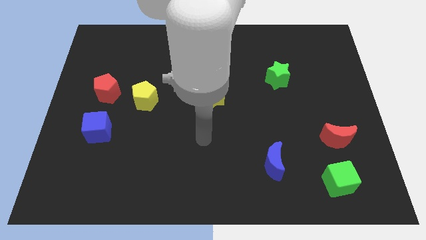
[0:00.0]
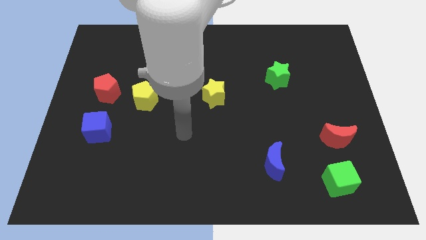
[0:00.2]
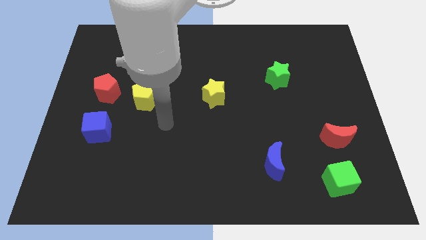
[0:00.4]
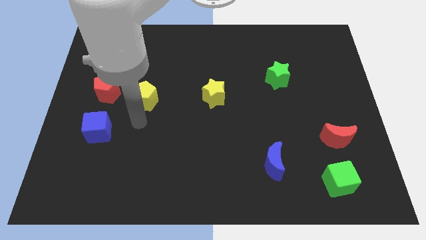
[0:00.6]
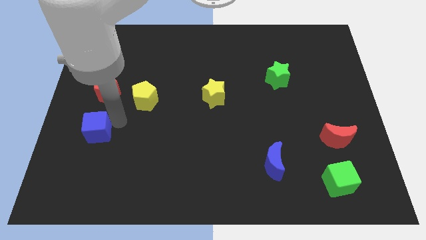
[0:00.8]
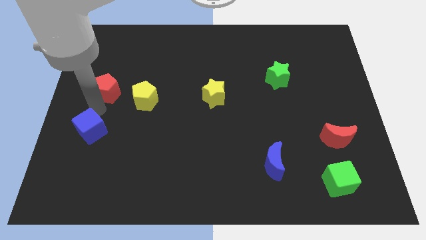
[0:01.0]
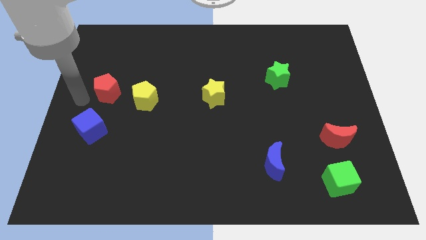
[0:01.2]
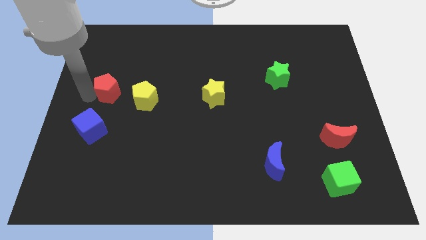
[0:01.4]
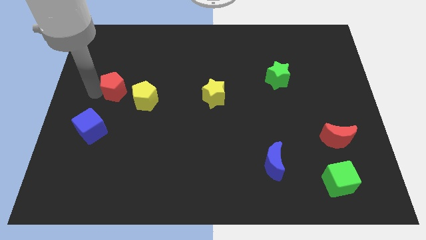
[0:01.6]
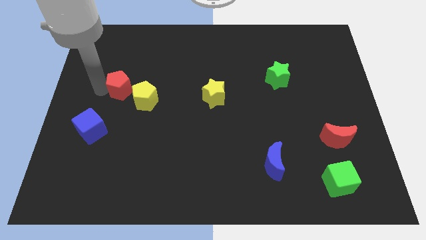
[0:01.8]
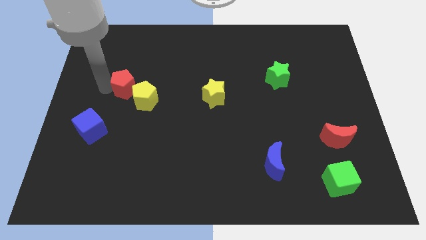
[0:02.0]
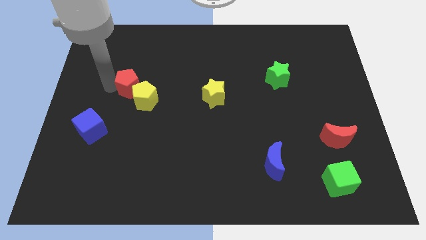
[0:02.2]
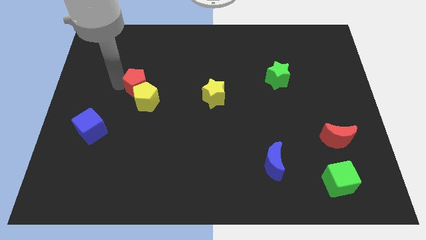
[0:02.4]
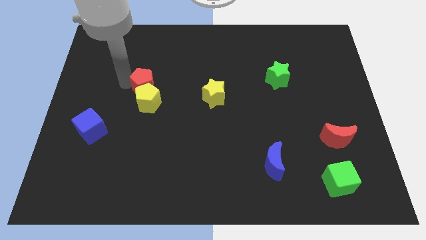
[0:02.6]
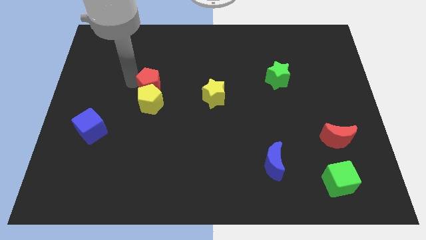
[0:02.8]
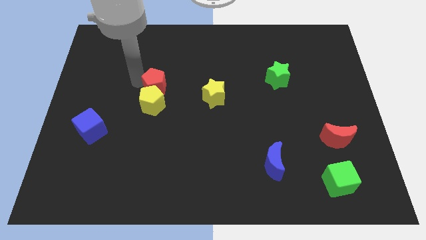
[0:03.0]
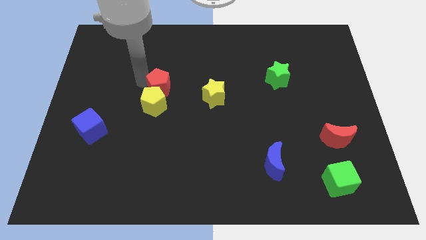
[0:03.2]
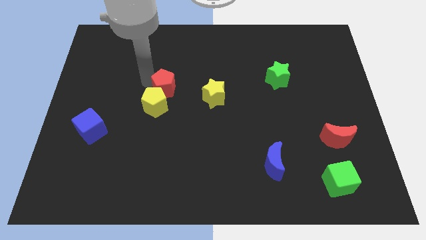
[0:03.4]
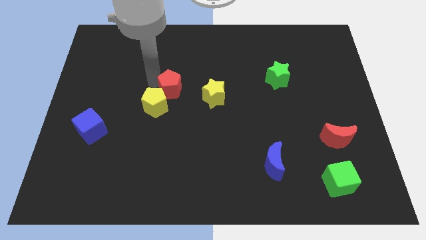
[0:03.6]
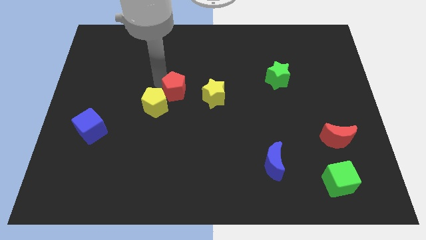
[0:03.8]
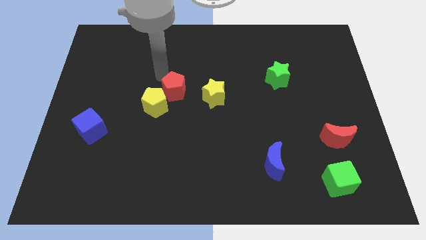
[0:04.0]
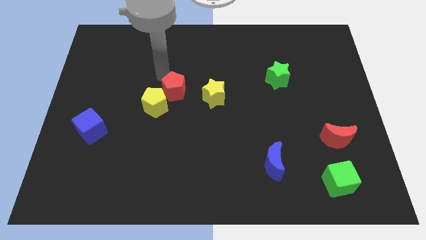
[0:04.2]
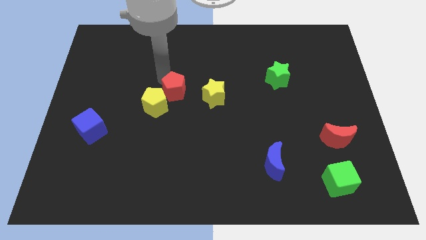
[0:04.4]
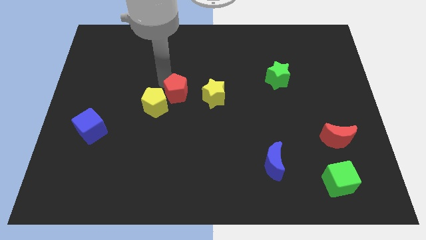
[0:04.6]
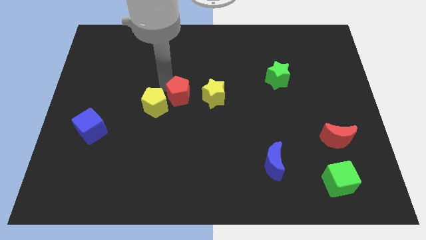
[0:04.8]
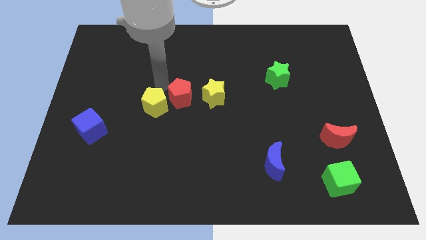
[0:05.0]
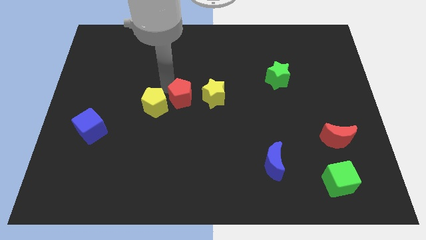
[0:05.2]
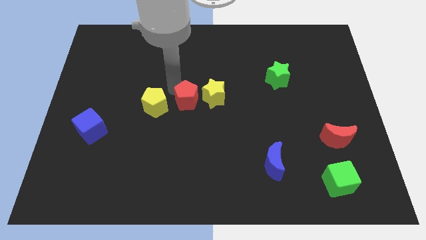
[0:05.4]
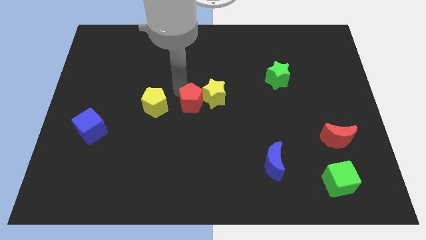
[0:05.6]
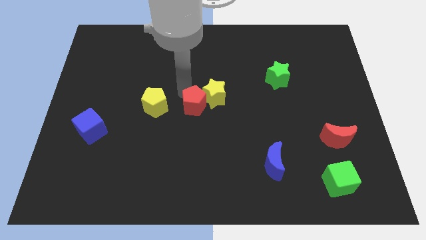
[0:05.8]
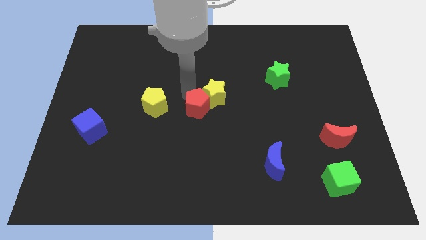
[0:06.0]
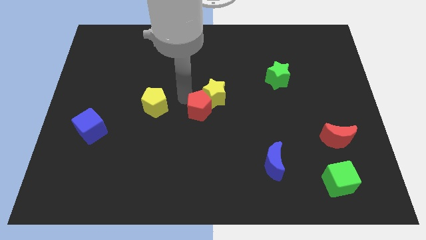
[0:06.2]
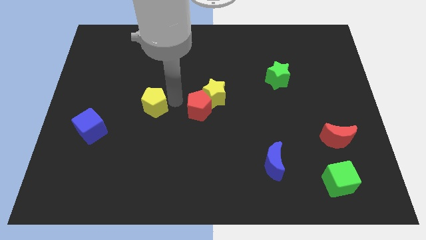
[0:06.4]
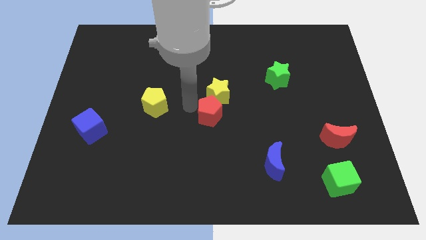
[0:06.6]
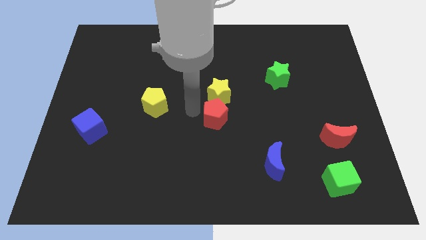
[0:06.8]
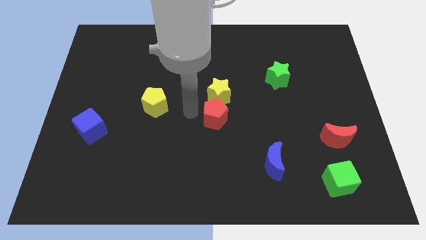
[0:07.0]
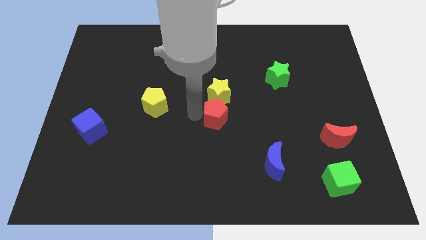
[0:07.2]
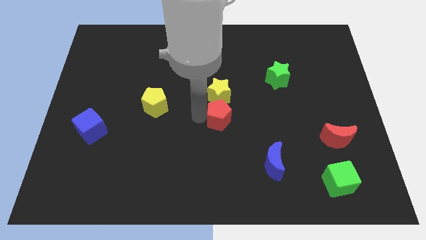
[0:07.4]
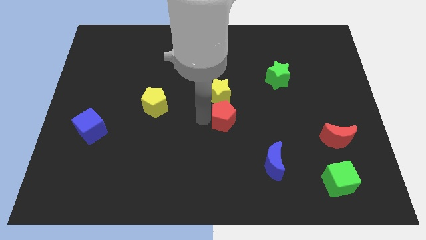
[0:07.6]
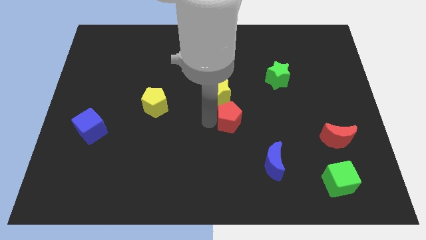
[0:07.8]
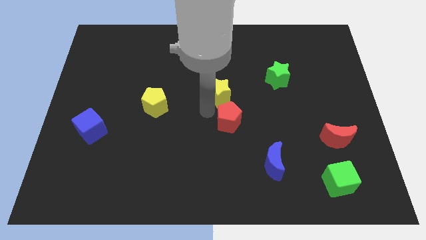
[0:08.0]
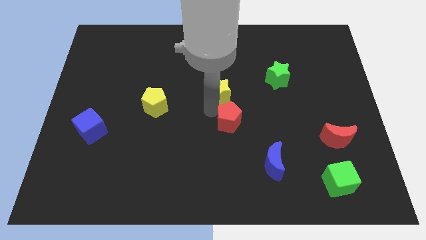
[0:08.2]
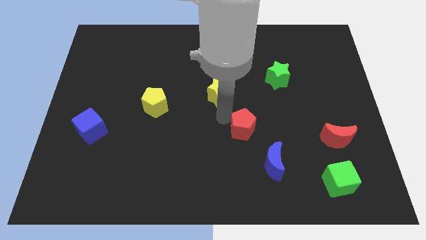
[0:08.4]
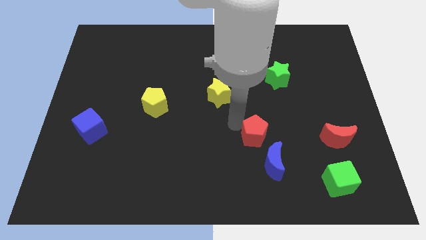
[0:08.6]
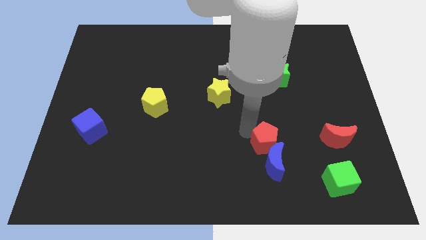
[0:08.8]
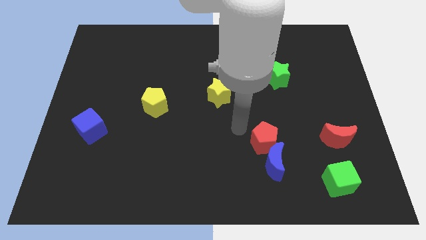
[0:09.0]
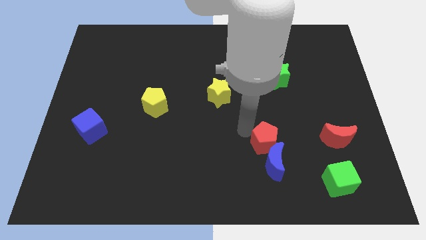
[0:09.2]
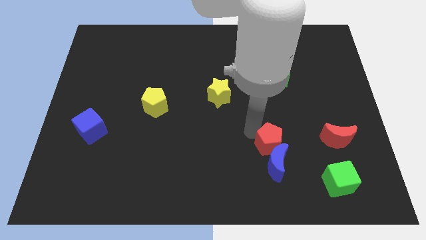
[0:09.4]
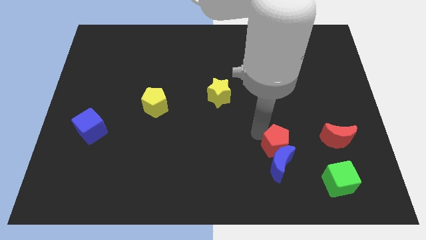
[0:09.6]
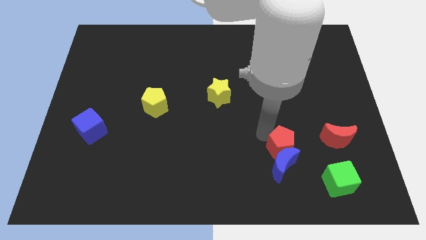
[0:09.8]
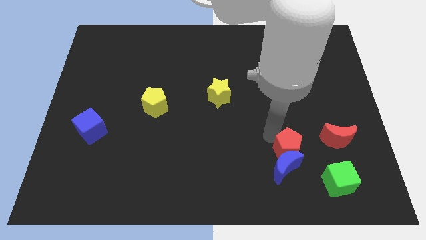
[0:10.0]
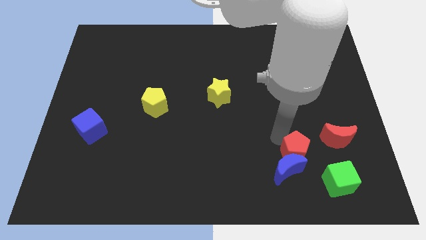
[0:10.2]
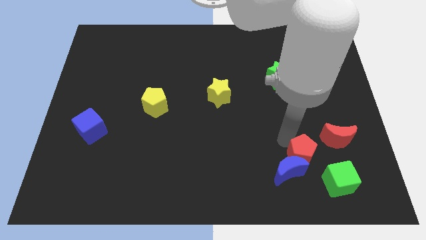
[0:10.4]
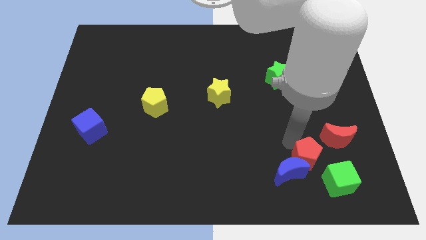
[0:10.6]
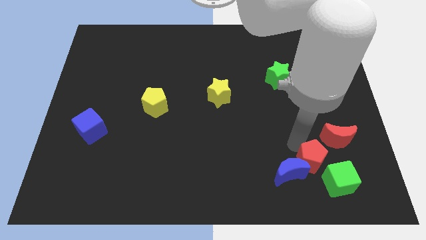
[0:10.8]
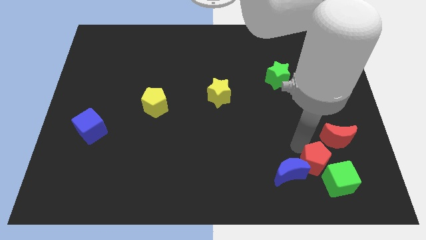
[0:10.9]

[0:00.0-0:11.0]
move the red pentagon towards the green cube

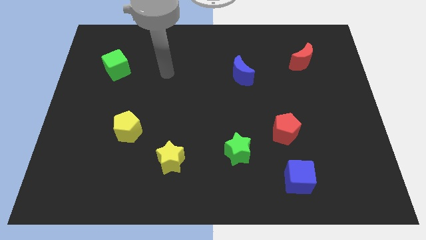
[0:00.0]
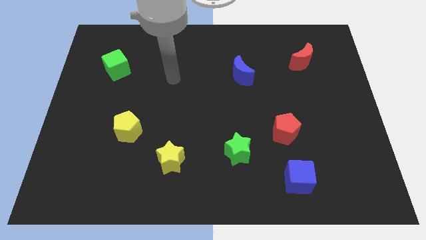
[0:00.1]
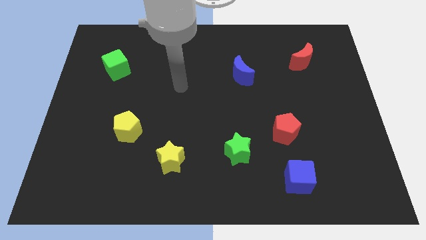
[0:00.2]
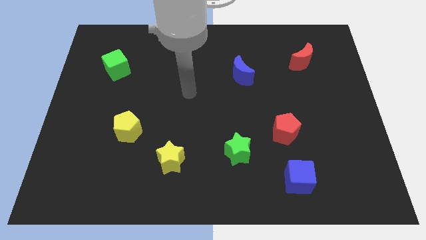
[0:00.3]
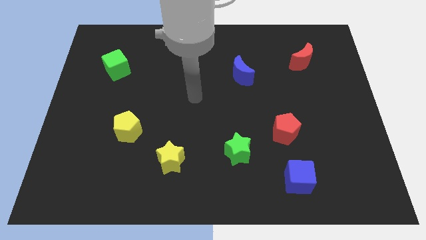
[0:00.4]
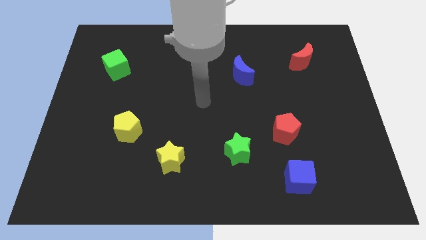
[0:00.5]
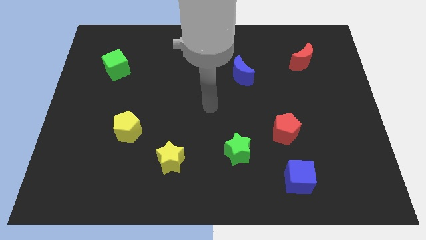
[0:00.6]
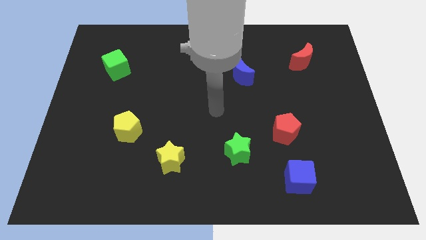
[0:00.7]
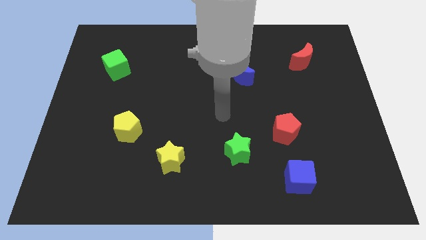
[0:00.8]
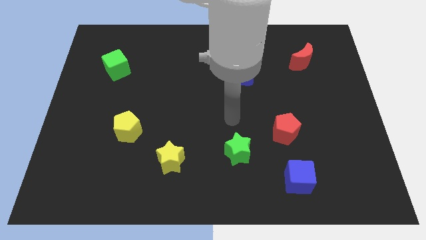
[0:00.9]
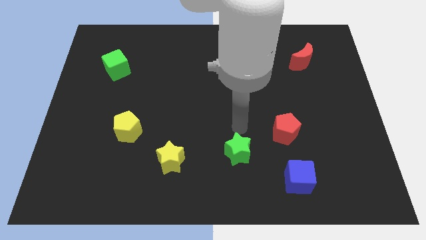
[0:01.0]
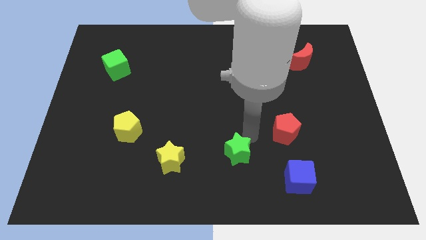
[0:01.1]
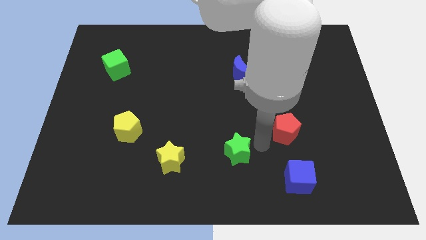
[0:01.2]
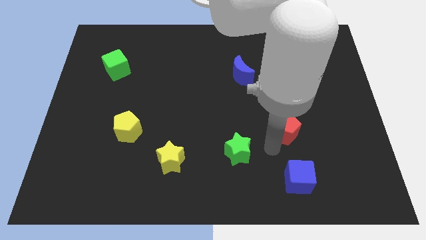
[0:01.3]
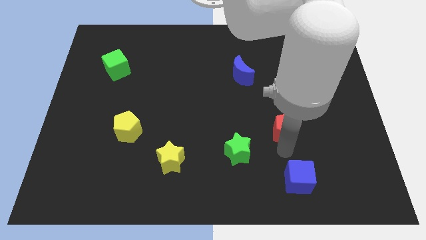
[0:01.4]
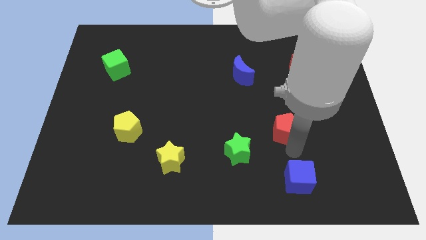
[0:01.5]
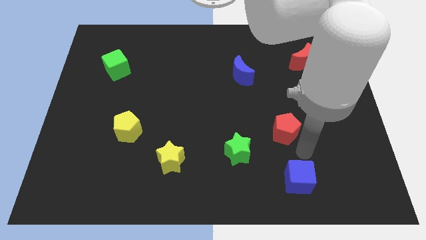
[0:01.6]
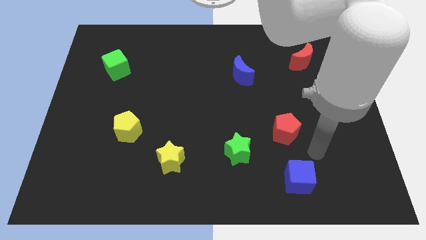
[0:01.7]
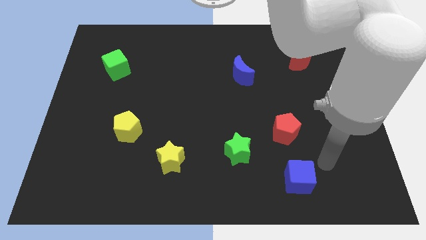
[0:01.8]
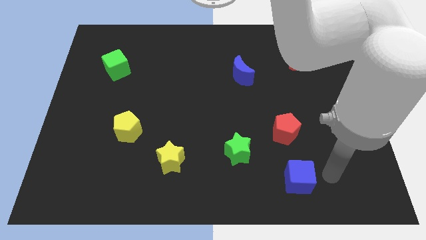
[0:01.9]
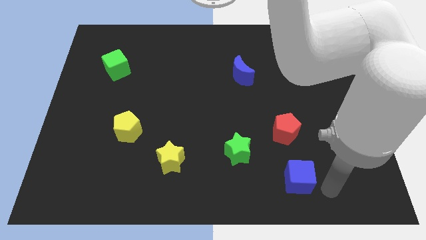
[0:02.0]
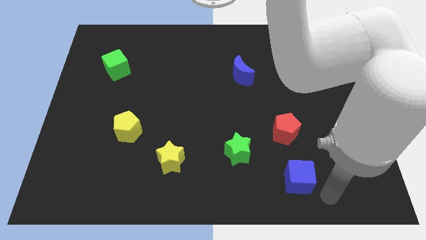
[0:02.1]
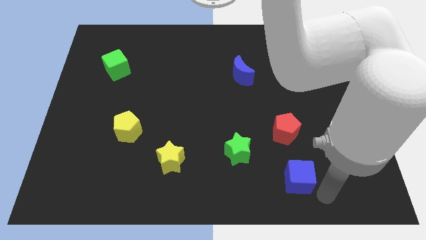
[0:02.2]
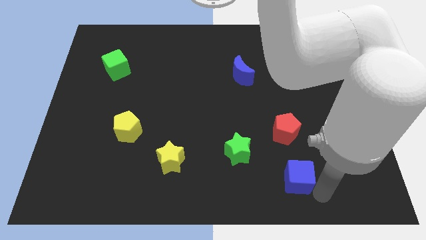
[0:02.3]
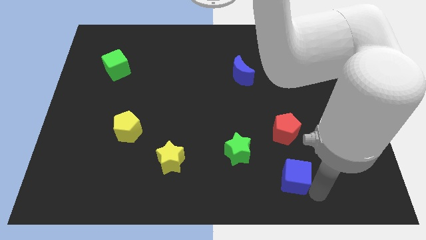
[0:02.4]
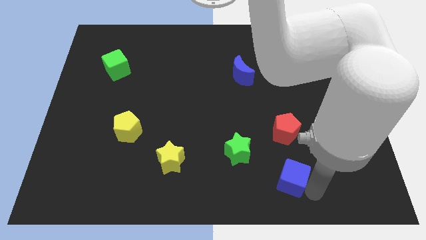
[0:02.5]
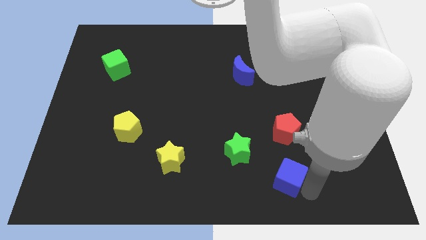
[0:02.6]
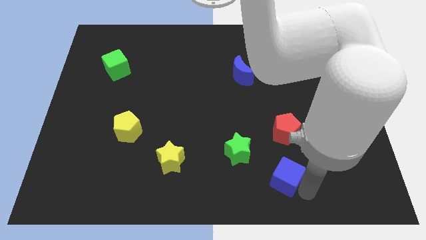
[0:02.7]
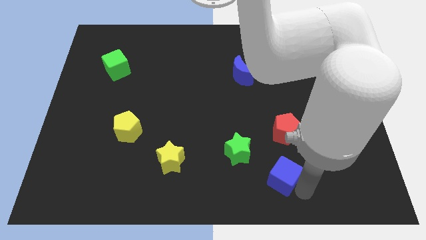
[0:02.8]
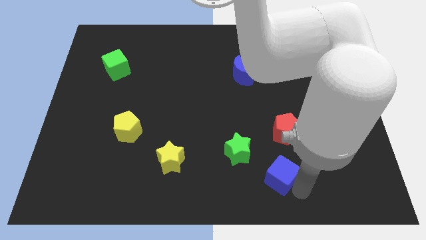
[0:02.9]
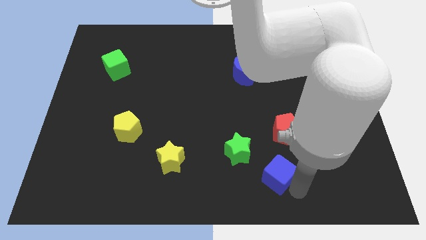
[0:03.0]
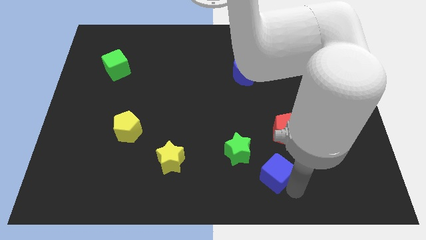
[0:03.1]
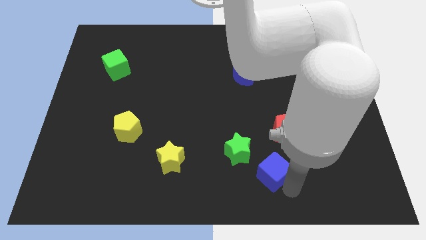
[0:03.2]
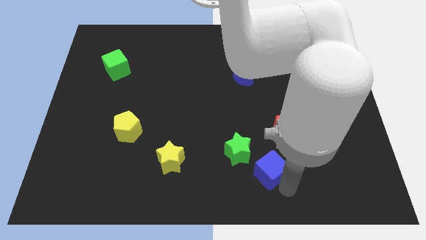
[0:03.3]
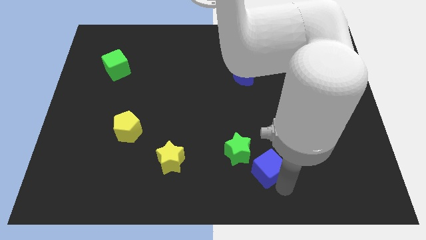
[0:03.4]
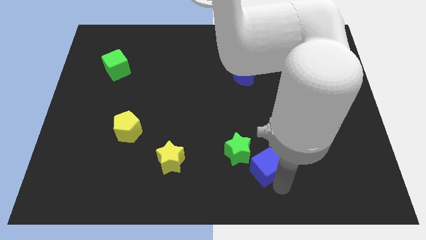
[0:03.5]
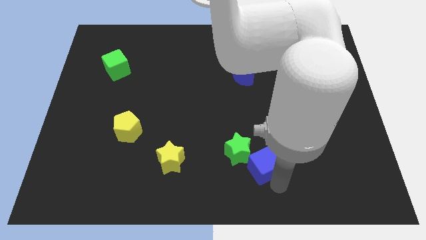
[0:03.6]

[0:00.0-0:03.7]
push the blue cube next to the green star
